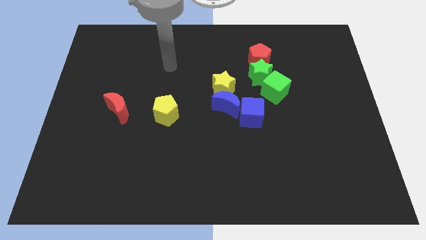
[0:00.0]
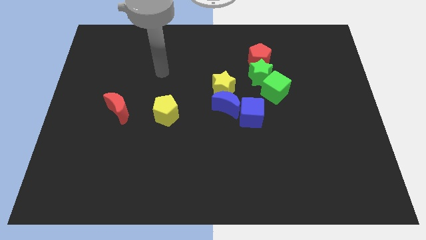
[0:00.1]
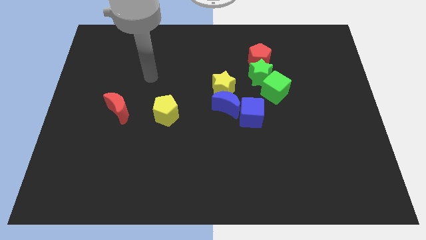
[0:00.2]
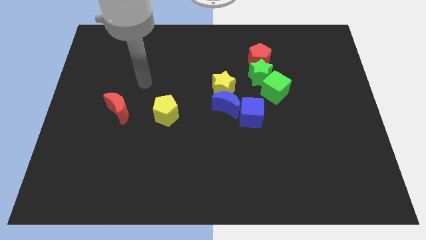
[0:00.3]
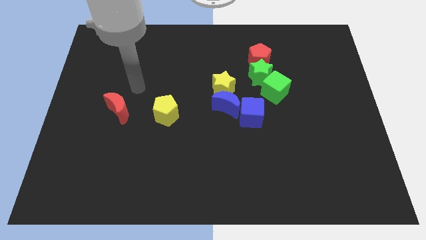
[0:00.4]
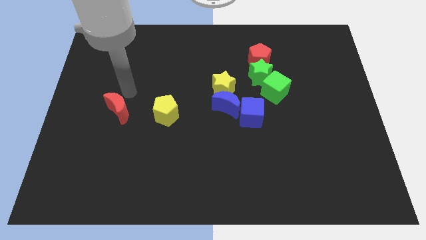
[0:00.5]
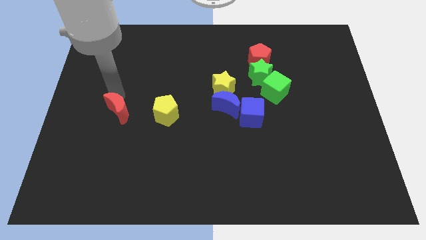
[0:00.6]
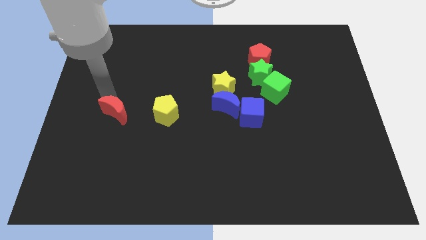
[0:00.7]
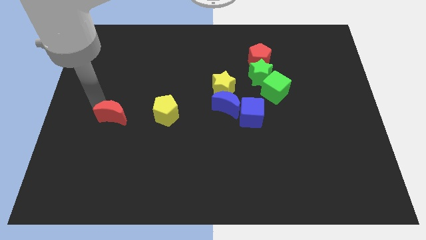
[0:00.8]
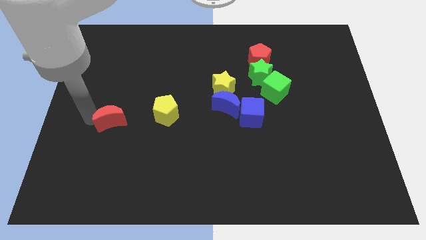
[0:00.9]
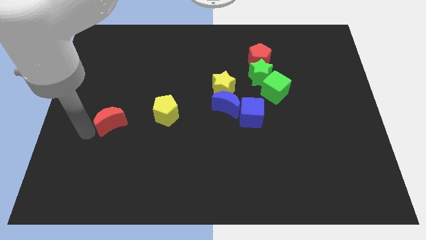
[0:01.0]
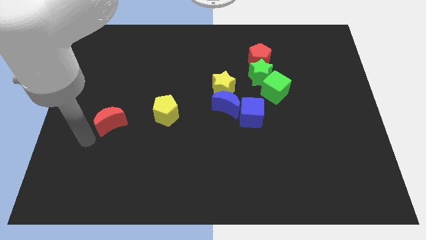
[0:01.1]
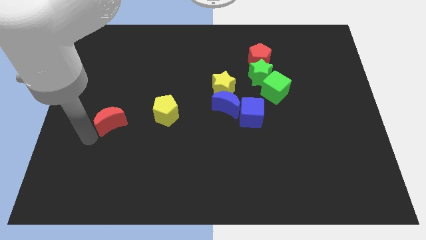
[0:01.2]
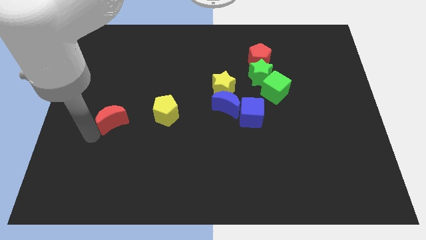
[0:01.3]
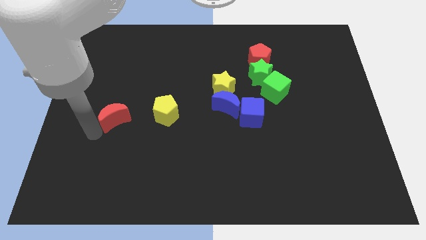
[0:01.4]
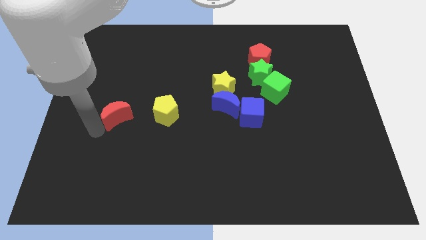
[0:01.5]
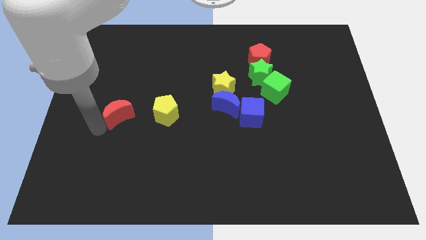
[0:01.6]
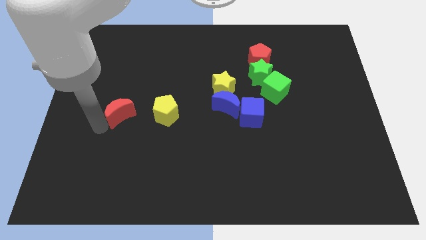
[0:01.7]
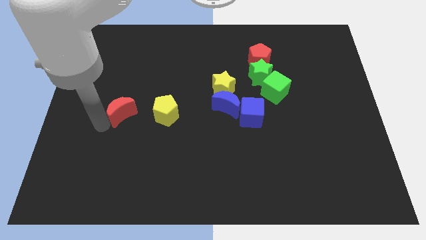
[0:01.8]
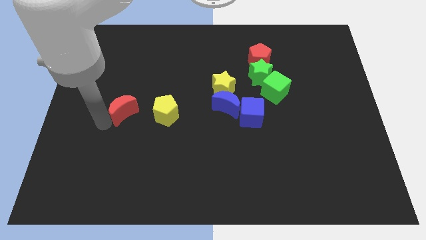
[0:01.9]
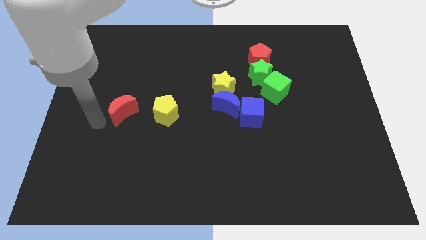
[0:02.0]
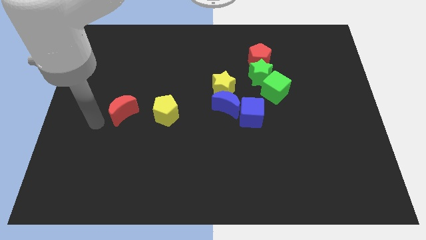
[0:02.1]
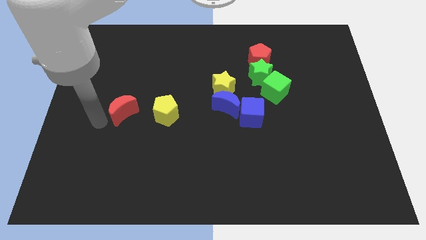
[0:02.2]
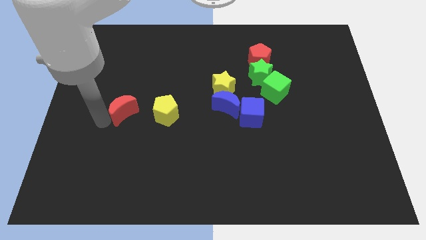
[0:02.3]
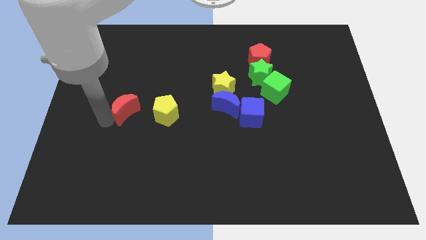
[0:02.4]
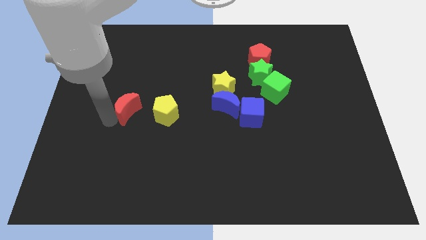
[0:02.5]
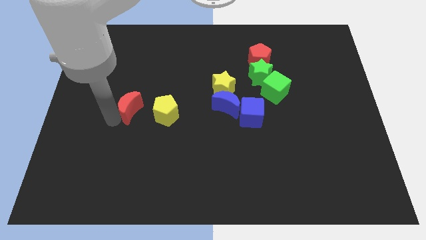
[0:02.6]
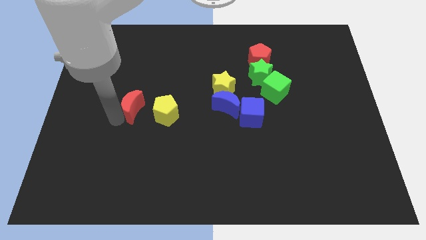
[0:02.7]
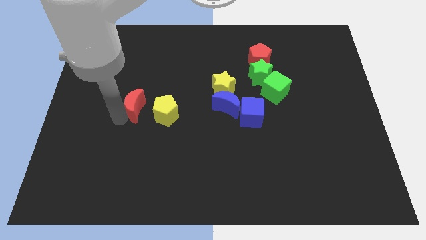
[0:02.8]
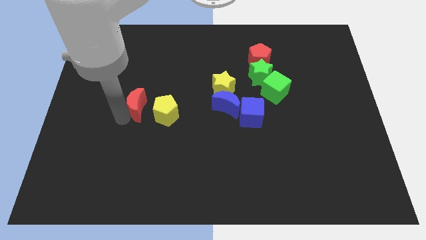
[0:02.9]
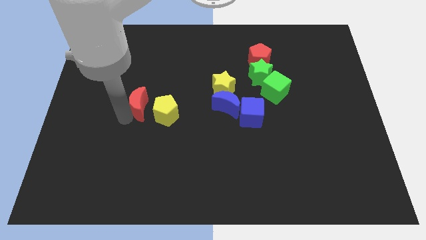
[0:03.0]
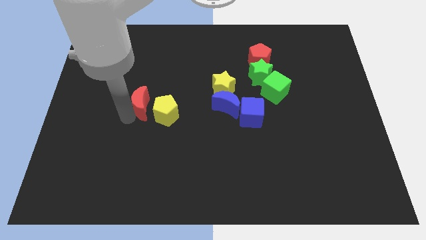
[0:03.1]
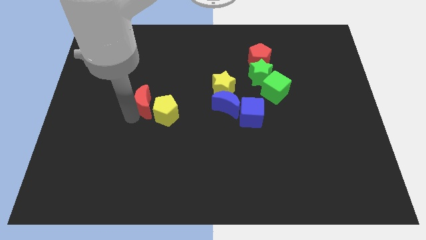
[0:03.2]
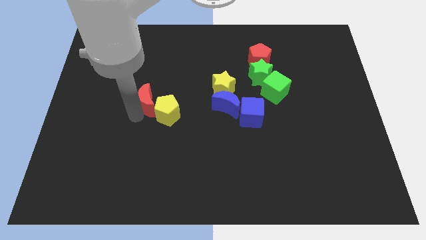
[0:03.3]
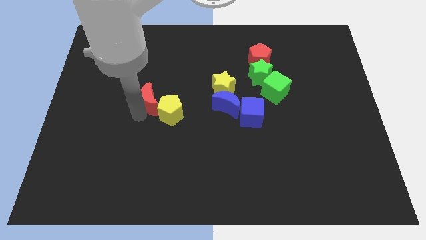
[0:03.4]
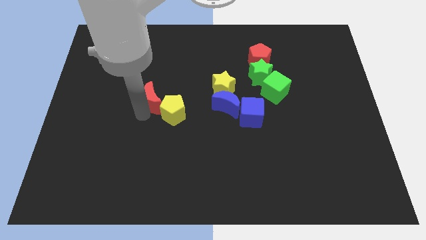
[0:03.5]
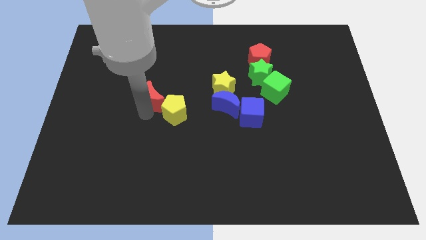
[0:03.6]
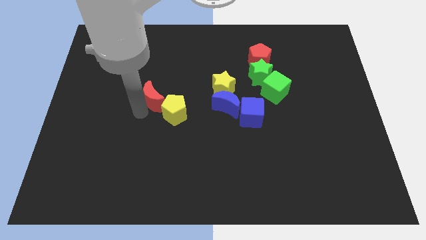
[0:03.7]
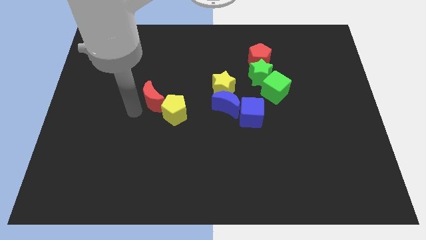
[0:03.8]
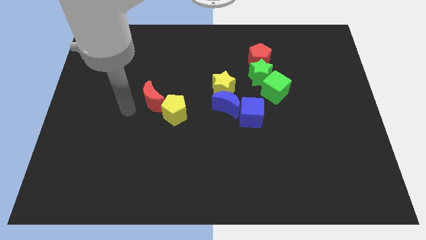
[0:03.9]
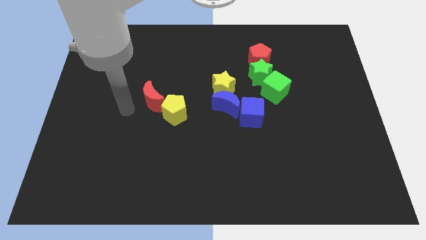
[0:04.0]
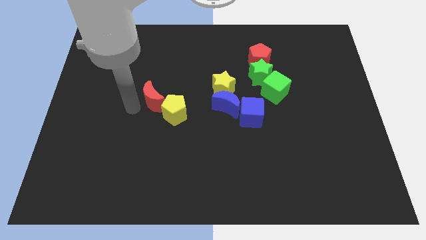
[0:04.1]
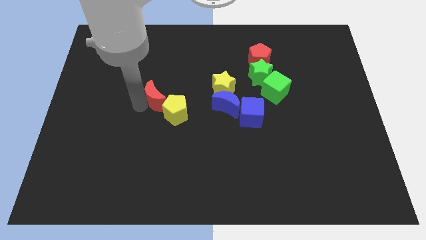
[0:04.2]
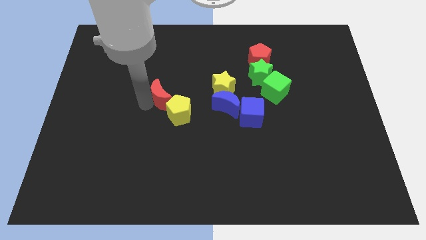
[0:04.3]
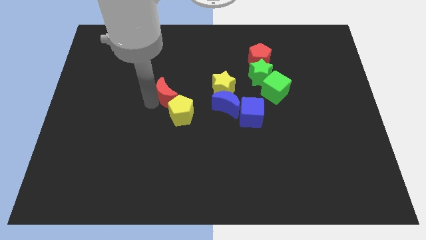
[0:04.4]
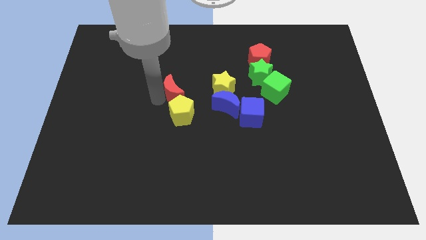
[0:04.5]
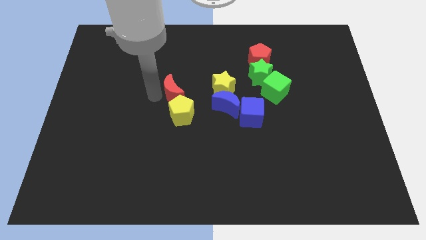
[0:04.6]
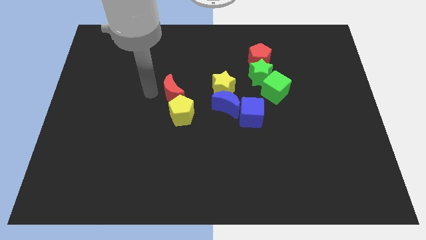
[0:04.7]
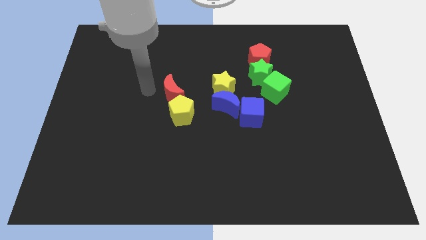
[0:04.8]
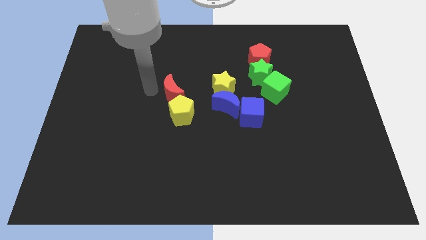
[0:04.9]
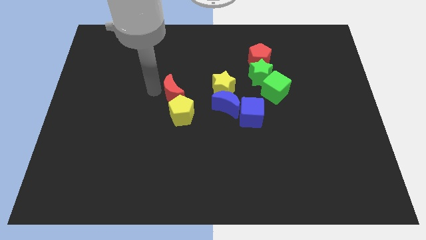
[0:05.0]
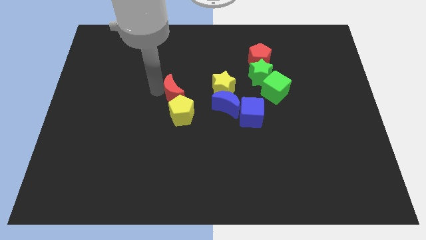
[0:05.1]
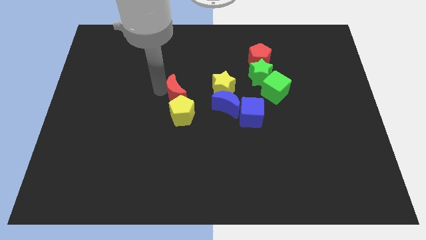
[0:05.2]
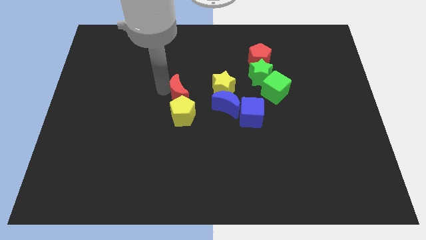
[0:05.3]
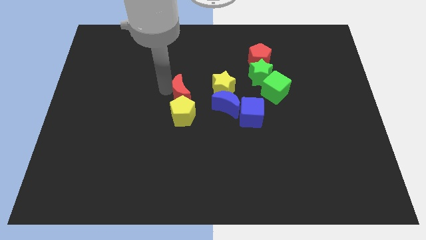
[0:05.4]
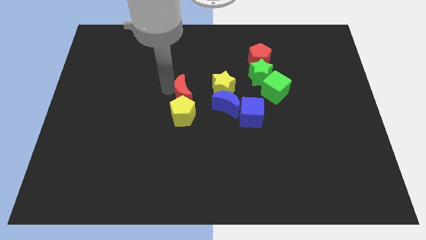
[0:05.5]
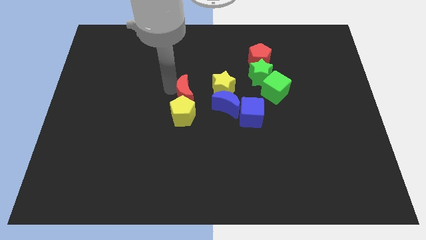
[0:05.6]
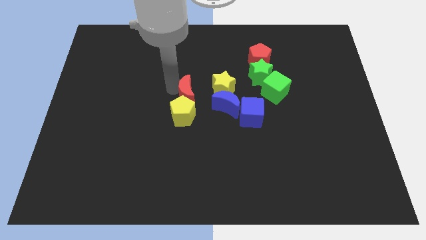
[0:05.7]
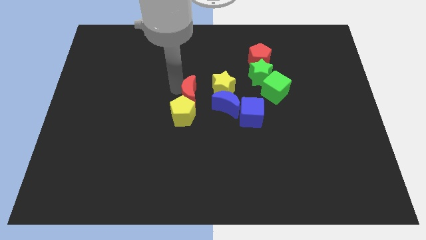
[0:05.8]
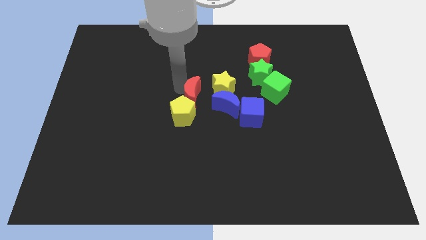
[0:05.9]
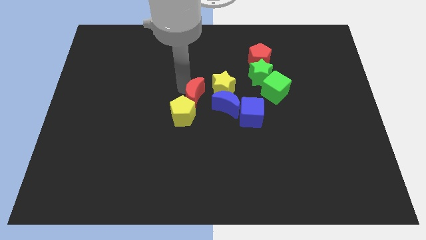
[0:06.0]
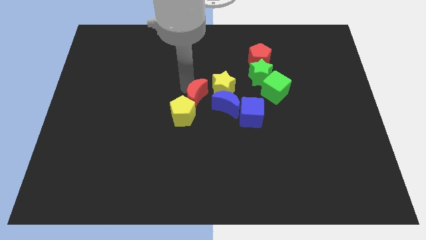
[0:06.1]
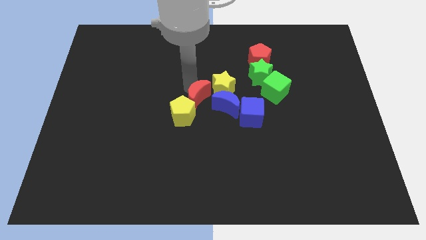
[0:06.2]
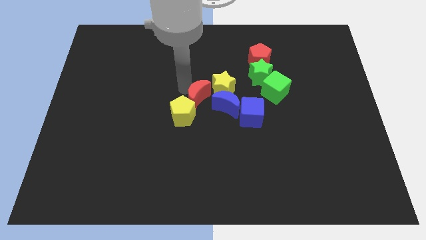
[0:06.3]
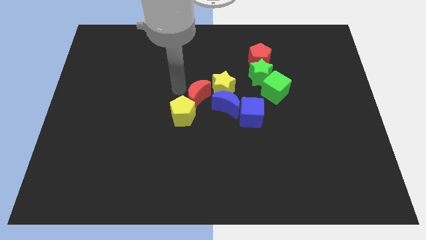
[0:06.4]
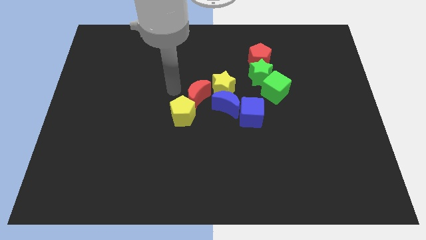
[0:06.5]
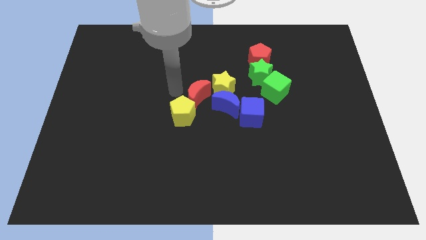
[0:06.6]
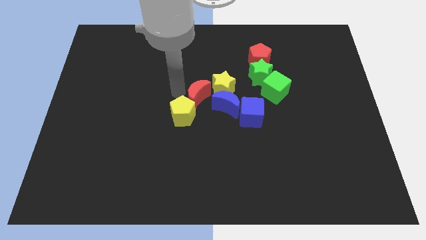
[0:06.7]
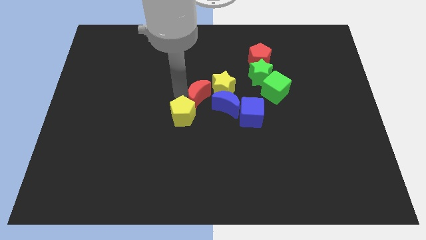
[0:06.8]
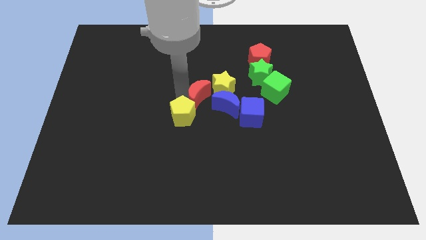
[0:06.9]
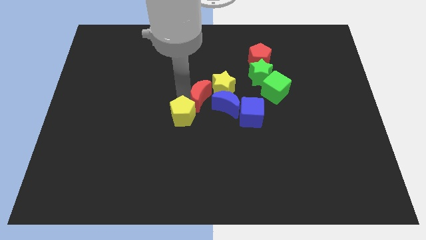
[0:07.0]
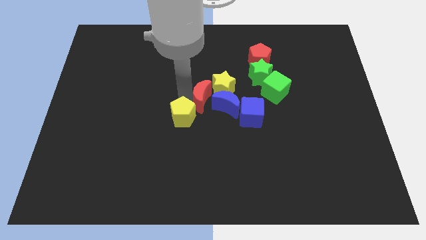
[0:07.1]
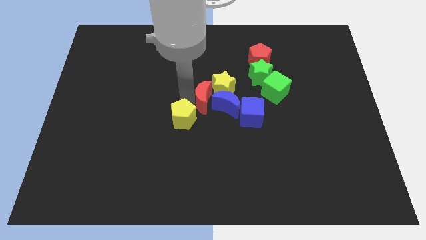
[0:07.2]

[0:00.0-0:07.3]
push the red moon towards the blue moon
